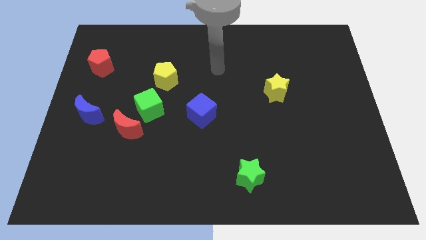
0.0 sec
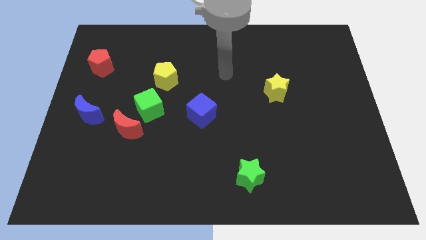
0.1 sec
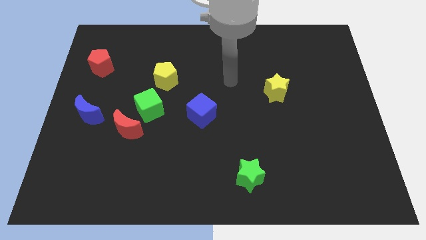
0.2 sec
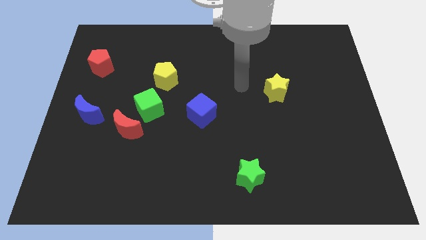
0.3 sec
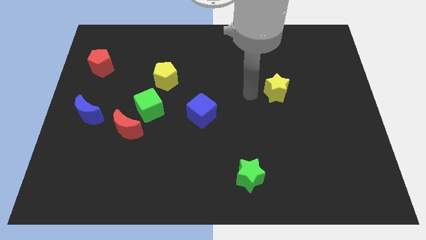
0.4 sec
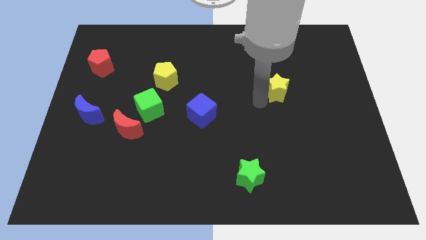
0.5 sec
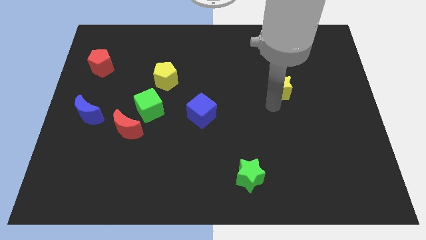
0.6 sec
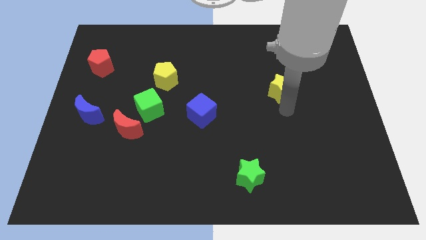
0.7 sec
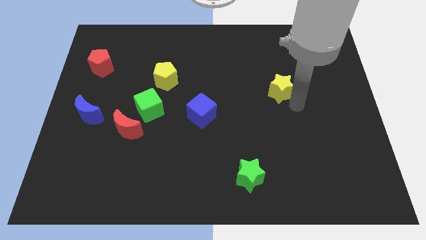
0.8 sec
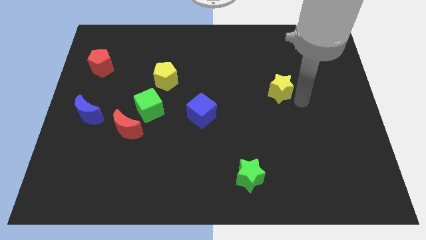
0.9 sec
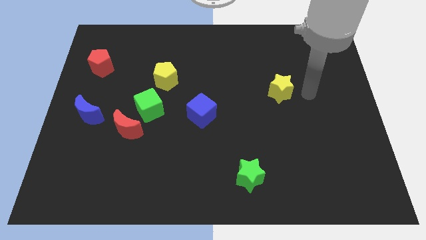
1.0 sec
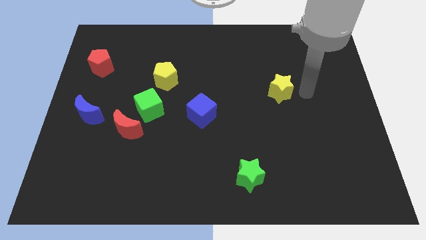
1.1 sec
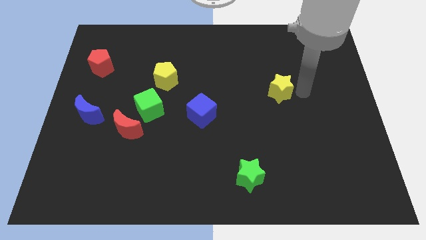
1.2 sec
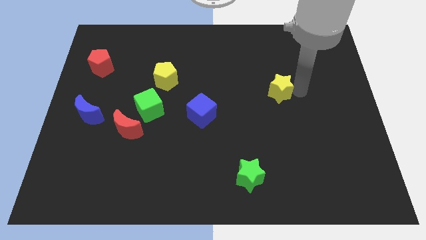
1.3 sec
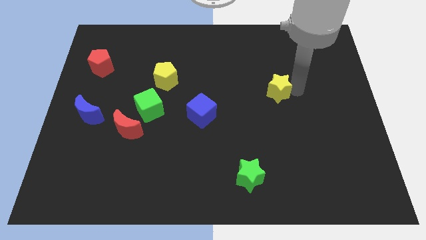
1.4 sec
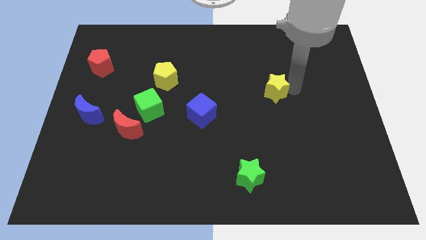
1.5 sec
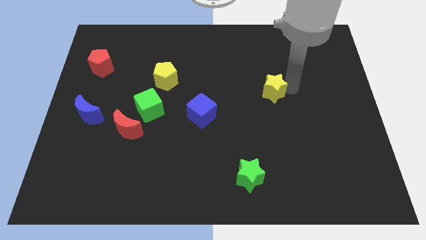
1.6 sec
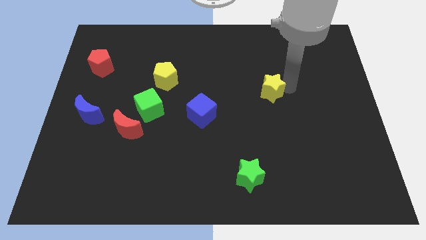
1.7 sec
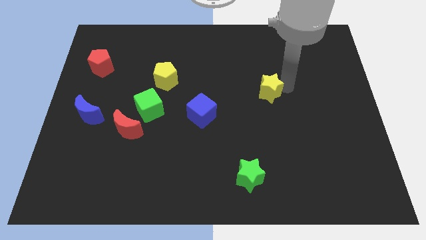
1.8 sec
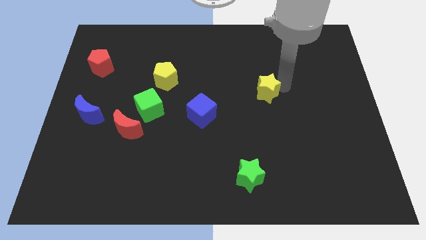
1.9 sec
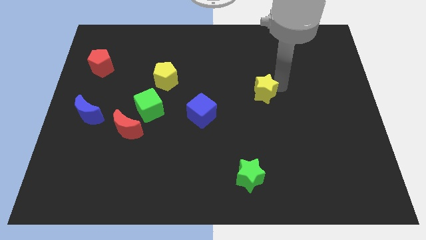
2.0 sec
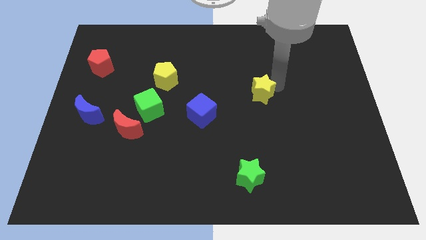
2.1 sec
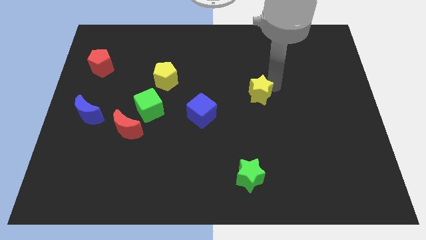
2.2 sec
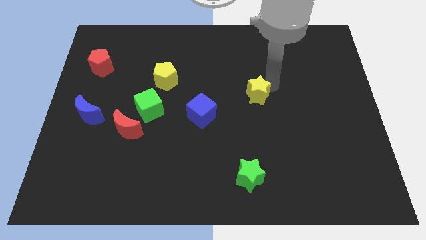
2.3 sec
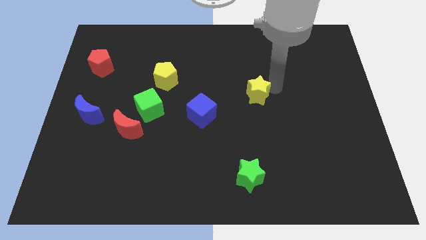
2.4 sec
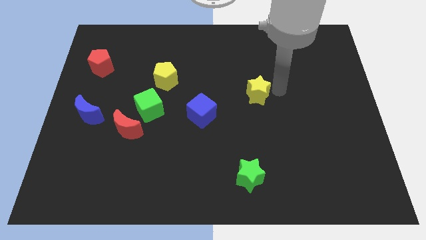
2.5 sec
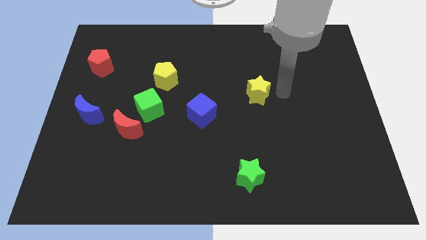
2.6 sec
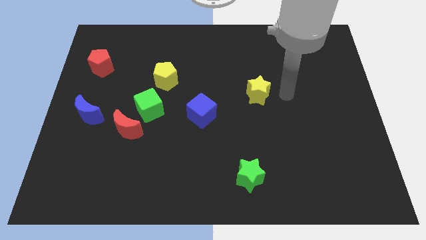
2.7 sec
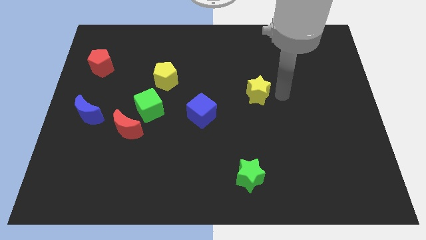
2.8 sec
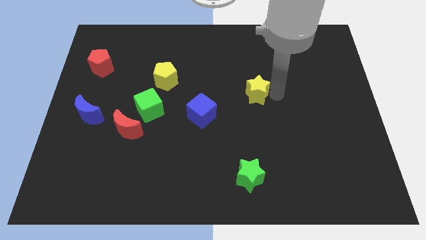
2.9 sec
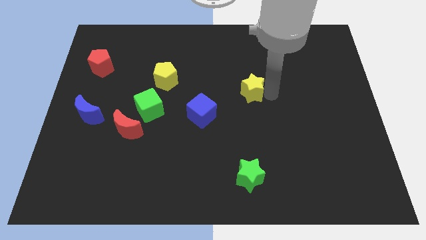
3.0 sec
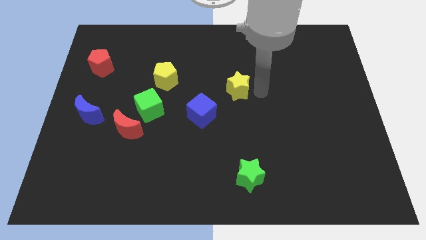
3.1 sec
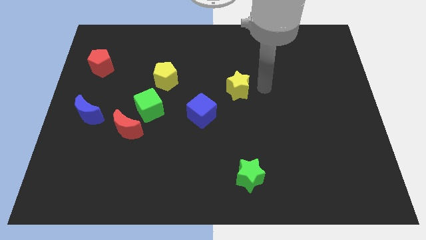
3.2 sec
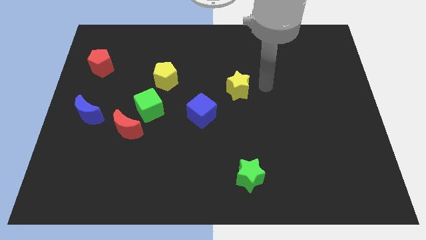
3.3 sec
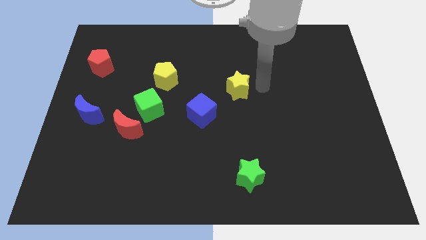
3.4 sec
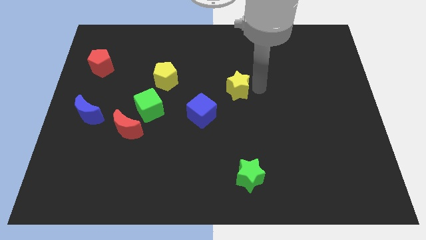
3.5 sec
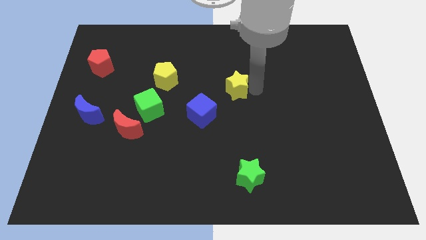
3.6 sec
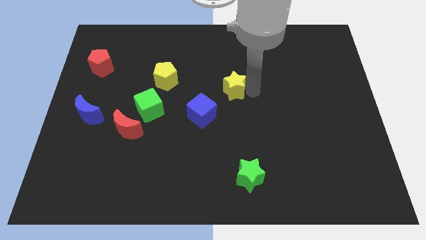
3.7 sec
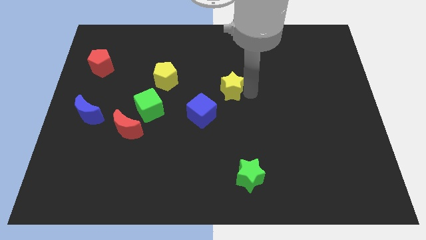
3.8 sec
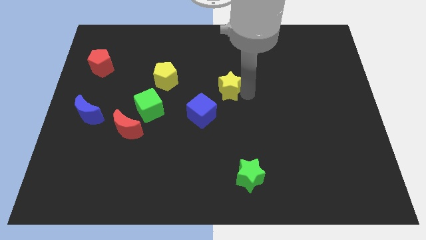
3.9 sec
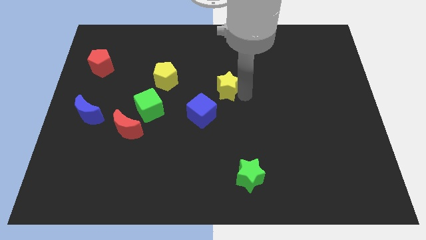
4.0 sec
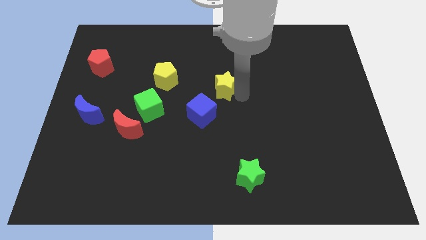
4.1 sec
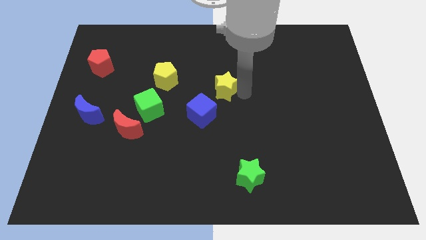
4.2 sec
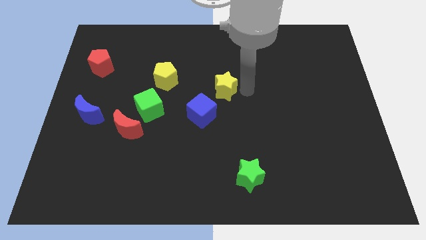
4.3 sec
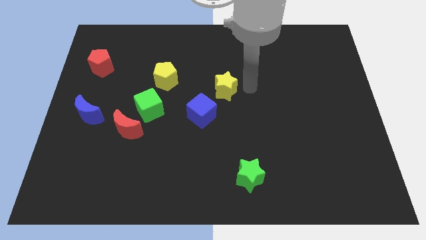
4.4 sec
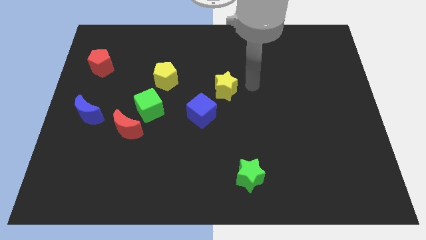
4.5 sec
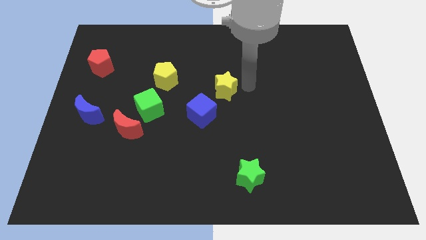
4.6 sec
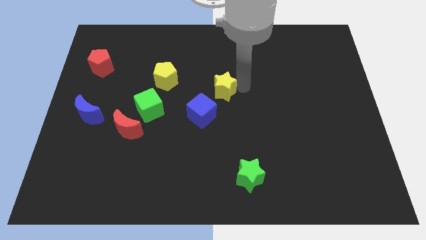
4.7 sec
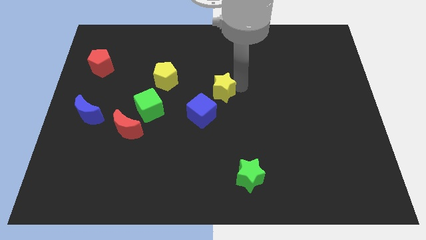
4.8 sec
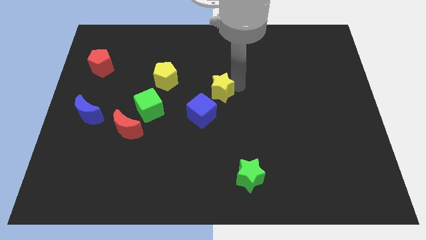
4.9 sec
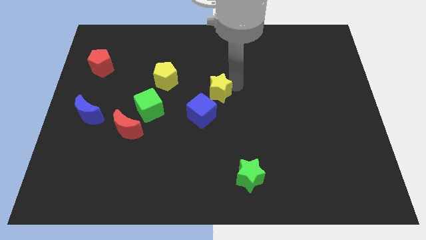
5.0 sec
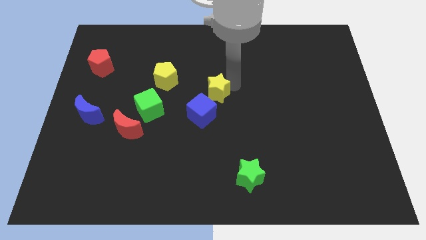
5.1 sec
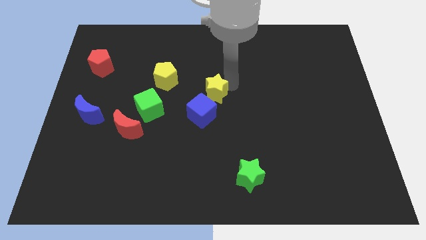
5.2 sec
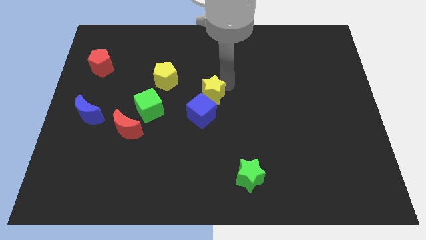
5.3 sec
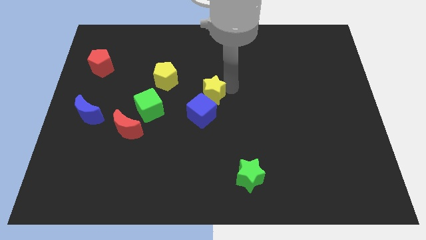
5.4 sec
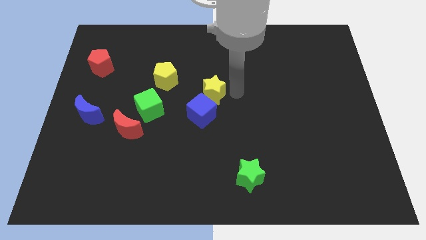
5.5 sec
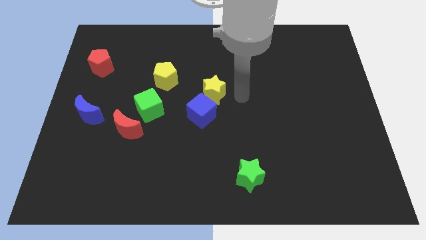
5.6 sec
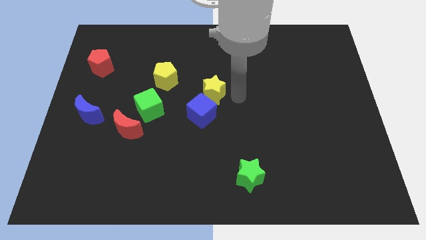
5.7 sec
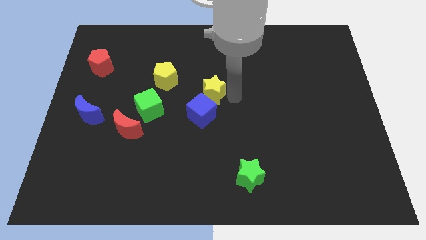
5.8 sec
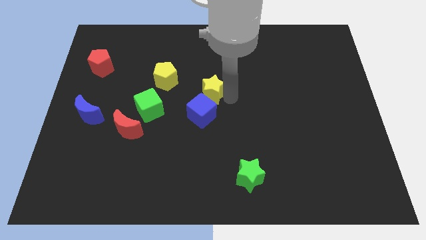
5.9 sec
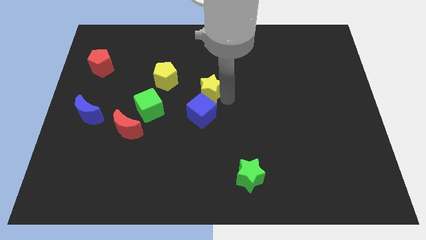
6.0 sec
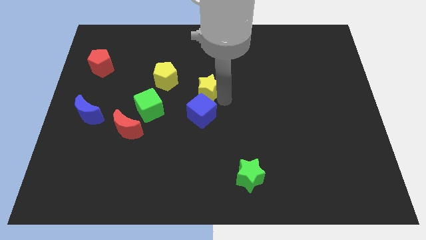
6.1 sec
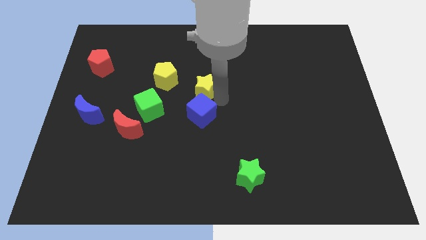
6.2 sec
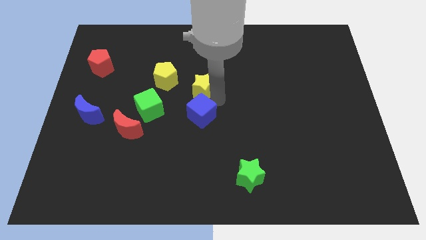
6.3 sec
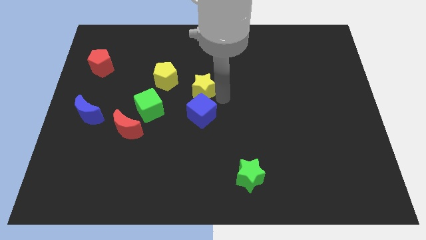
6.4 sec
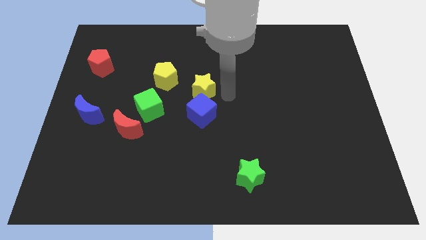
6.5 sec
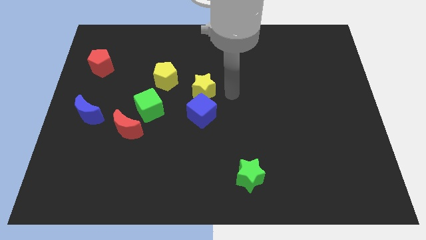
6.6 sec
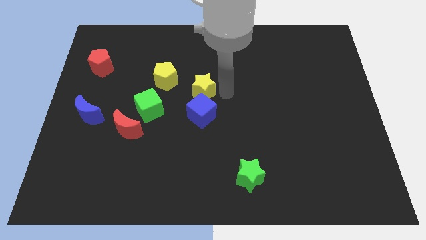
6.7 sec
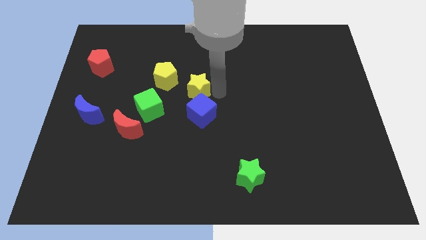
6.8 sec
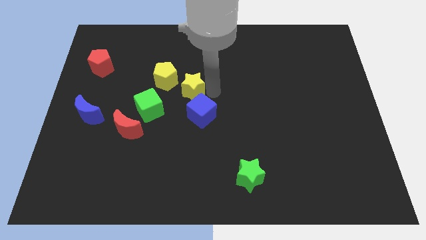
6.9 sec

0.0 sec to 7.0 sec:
move the yellow star to the left

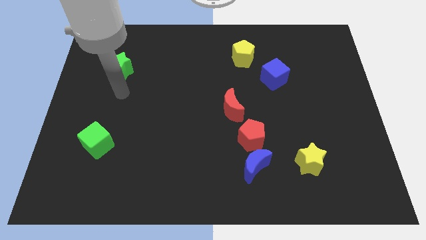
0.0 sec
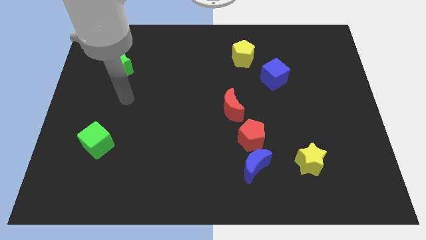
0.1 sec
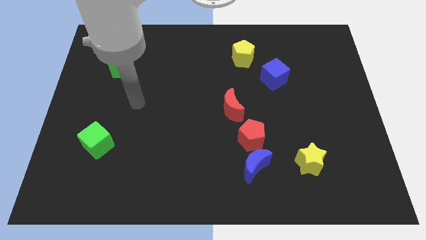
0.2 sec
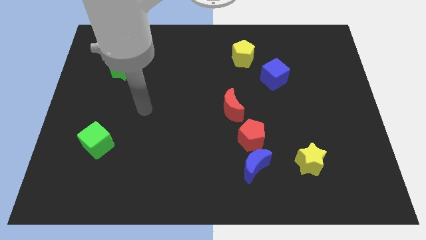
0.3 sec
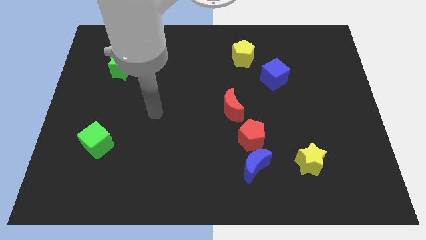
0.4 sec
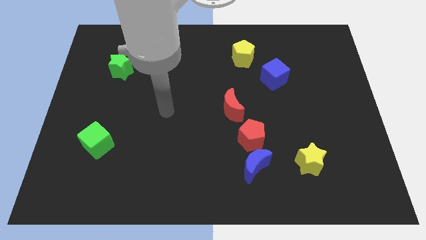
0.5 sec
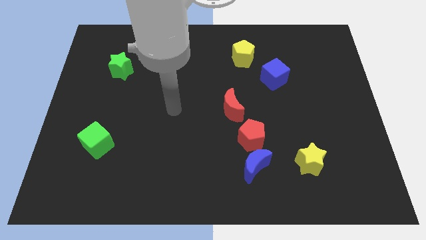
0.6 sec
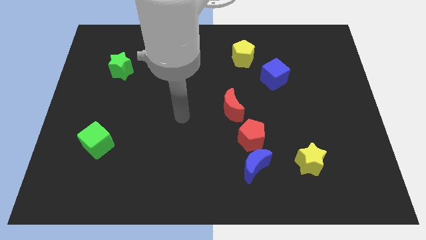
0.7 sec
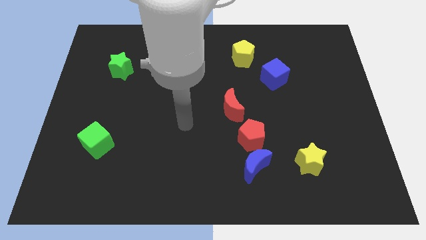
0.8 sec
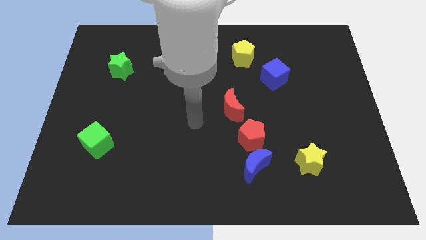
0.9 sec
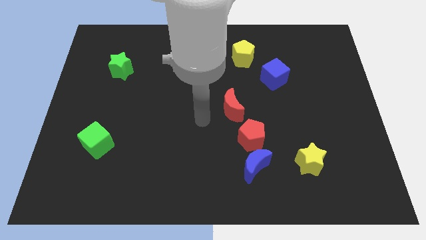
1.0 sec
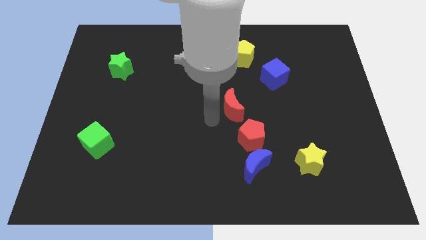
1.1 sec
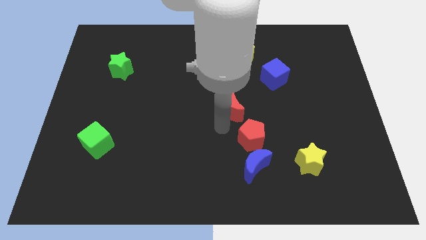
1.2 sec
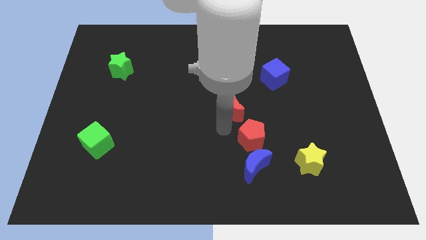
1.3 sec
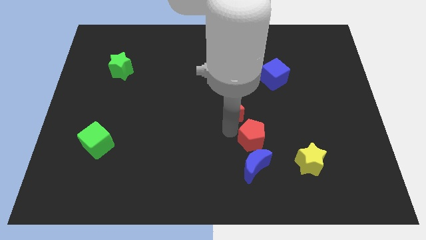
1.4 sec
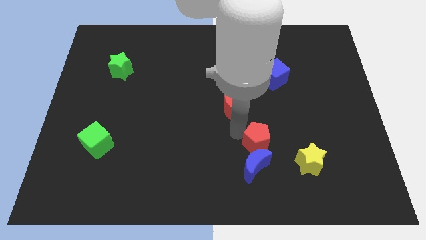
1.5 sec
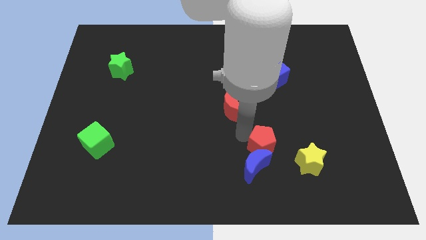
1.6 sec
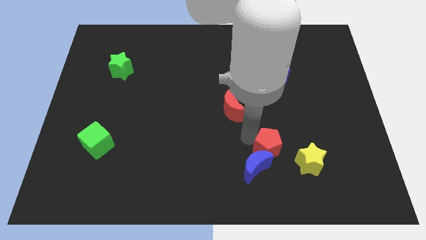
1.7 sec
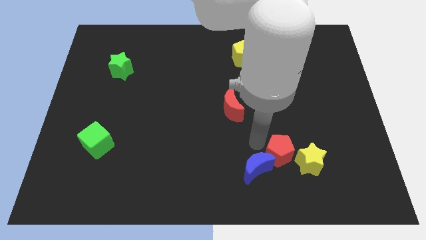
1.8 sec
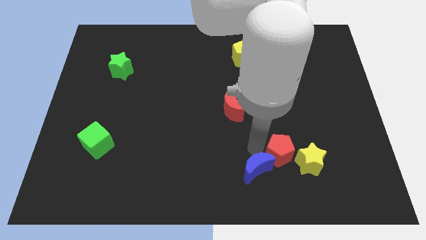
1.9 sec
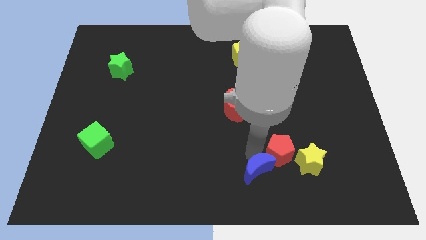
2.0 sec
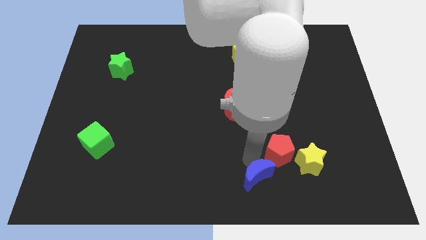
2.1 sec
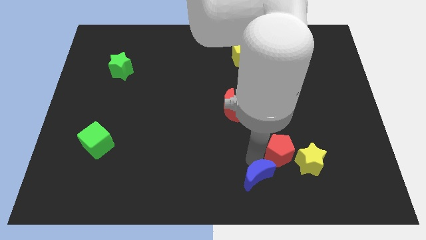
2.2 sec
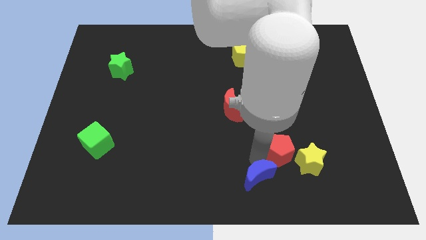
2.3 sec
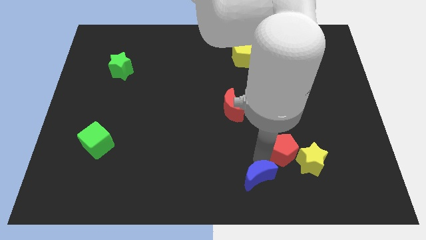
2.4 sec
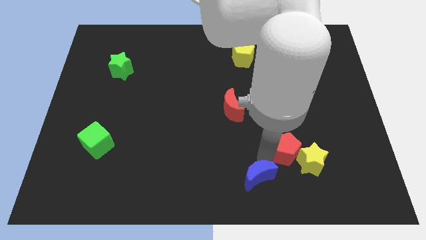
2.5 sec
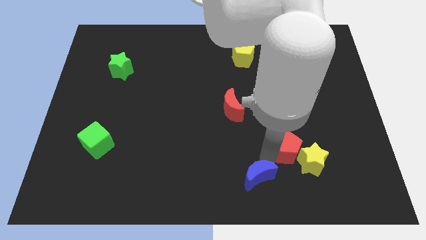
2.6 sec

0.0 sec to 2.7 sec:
slide the red pentagon a little right
